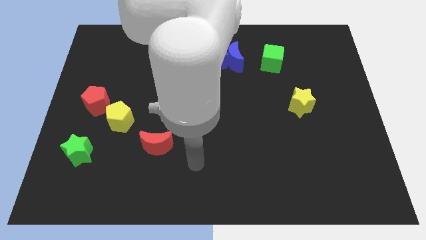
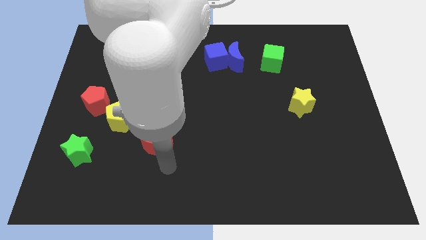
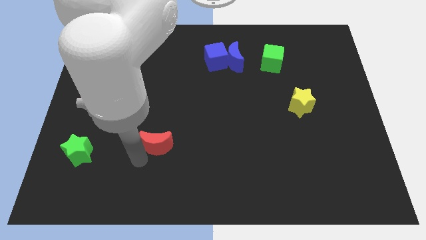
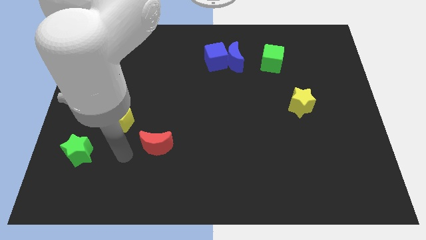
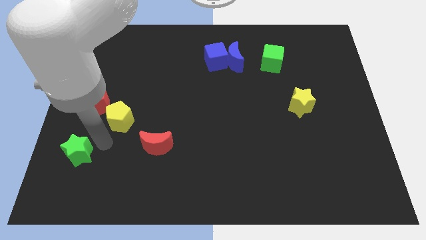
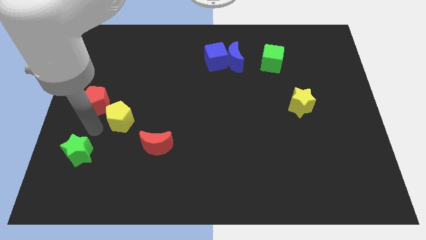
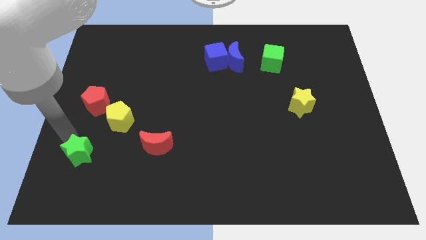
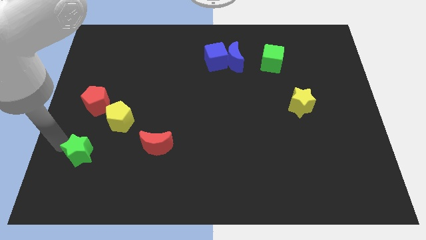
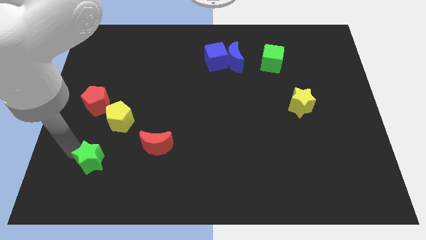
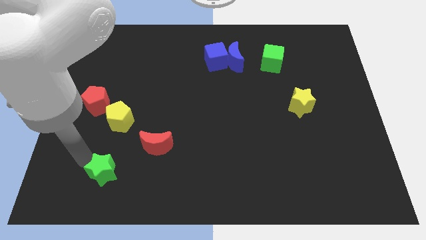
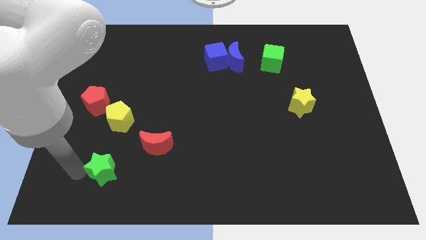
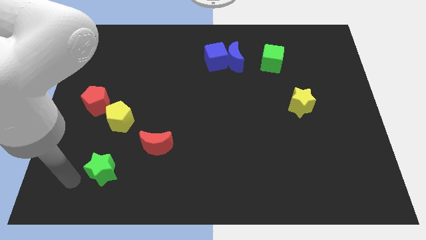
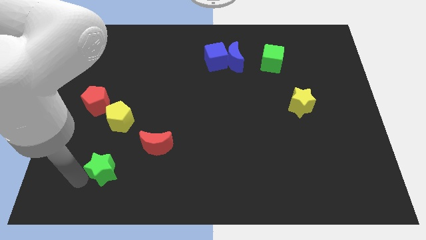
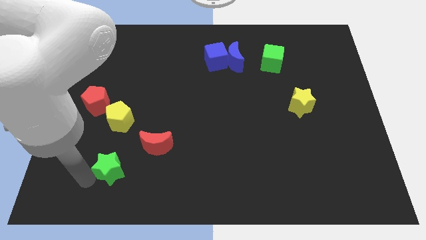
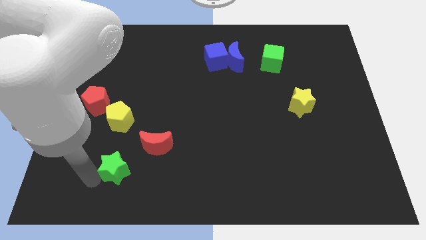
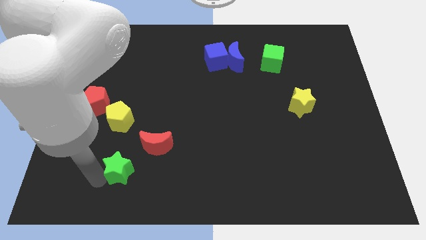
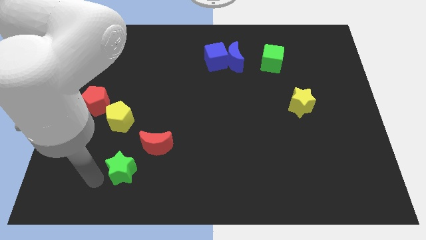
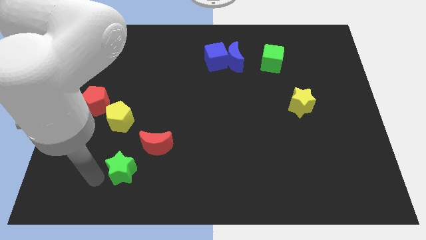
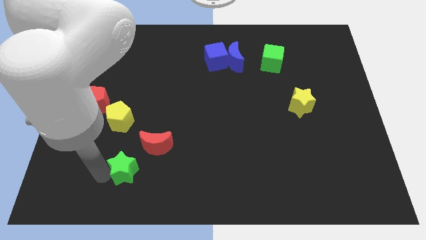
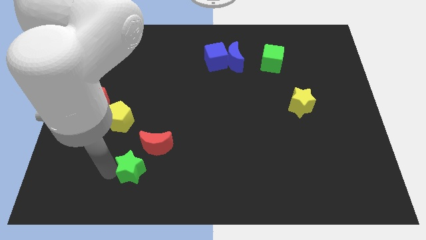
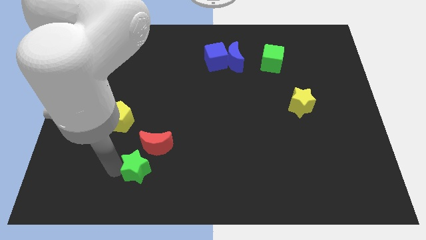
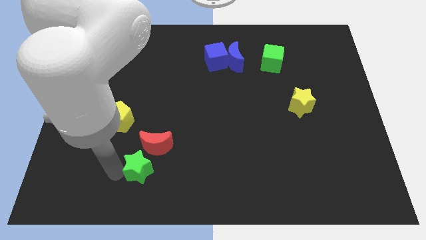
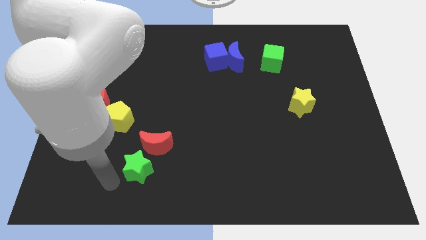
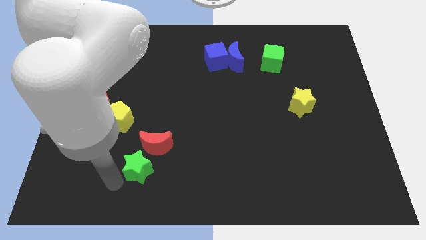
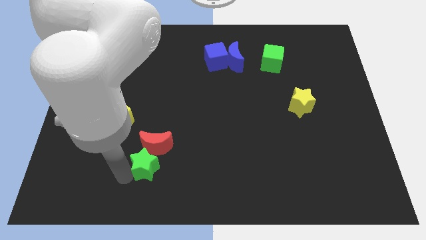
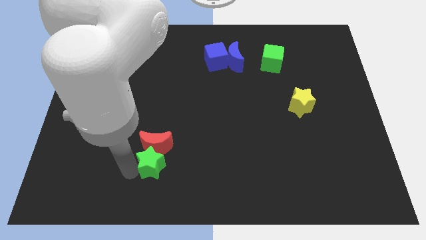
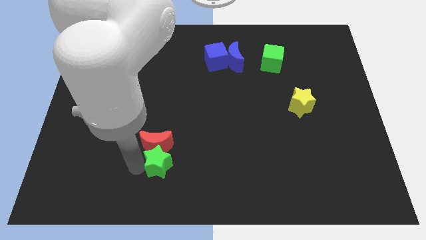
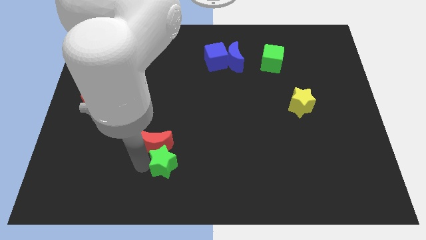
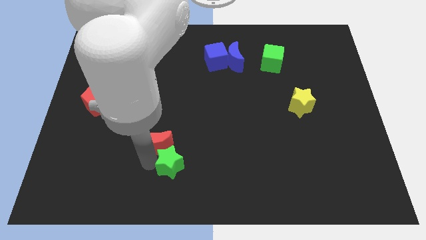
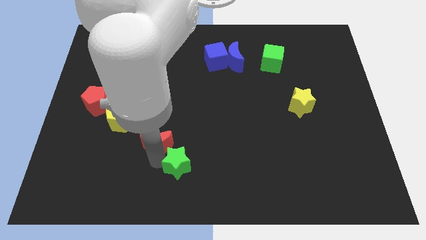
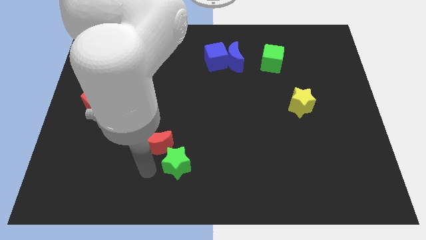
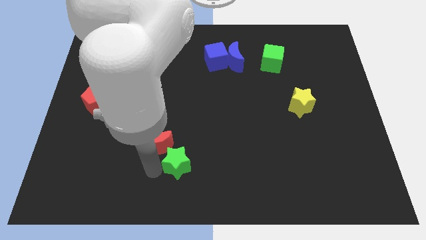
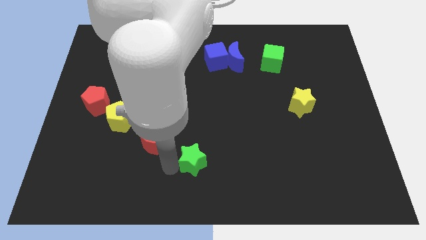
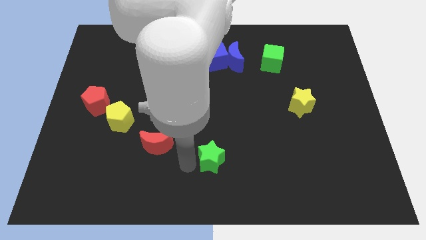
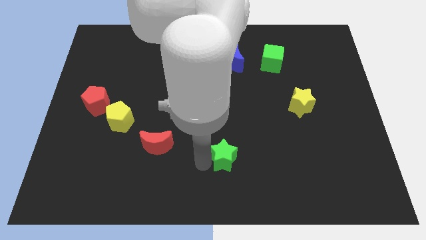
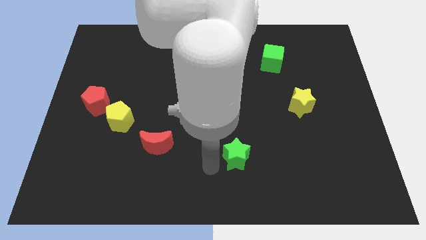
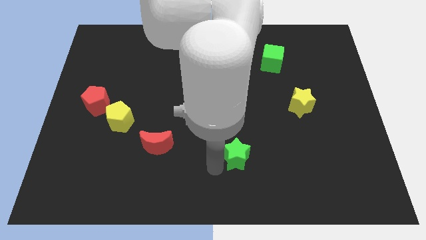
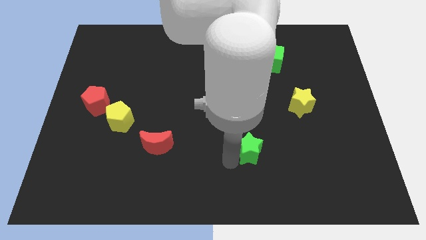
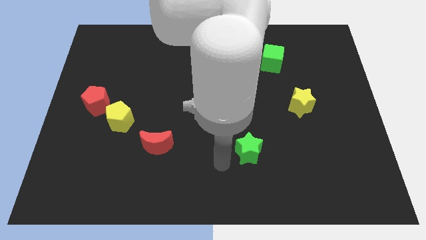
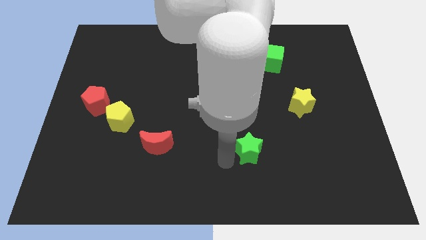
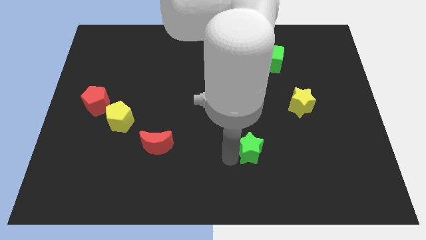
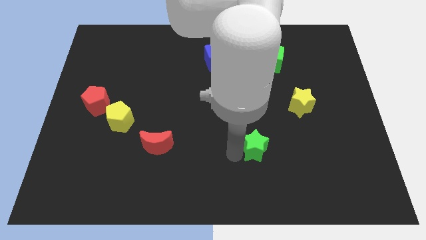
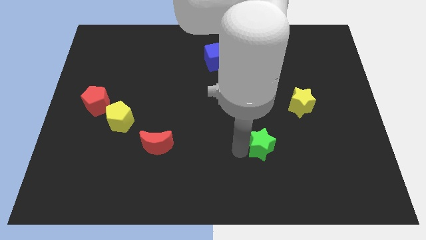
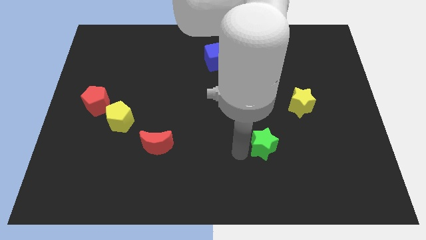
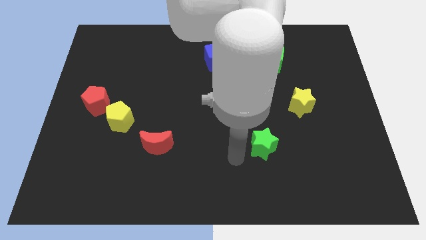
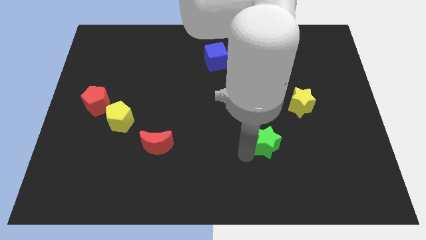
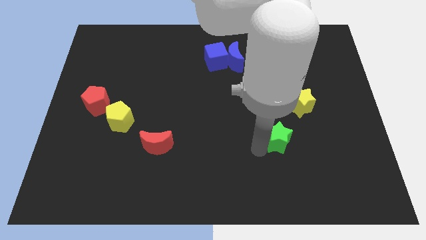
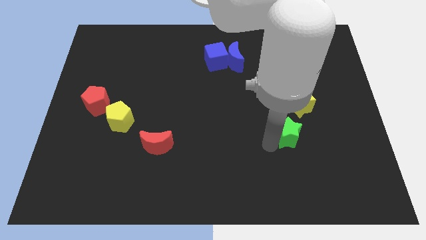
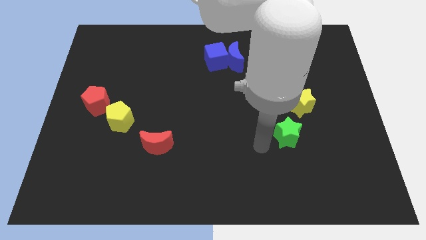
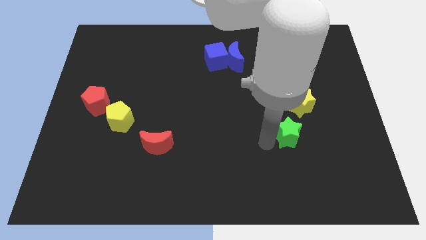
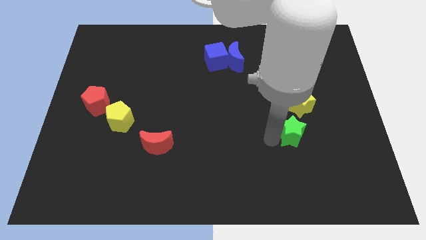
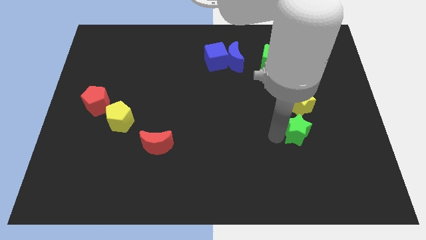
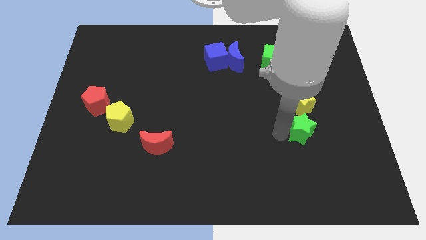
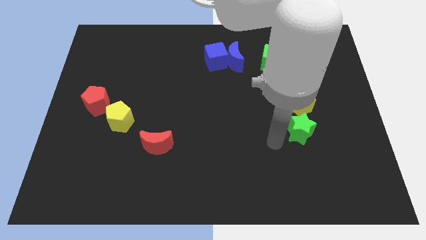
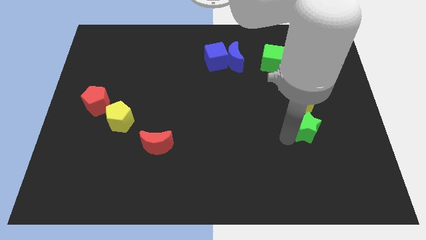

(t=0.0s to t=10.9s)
move the green star to the bottom right side of the yellow star

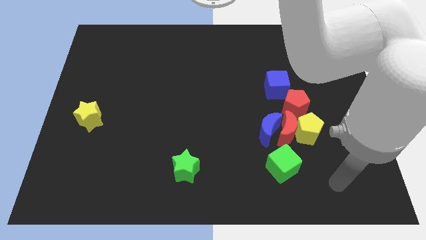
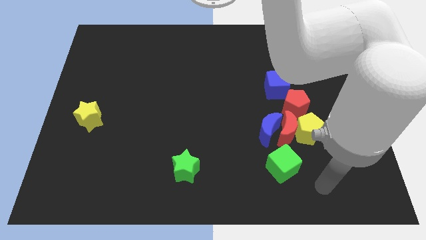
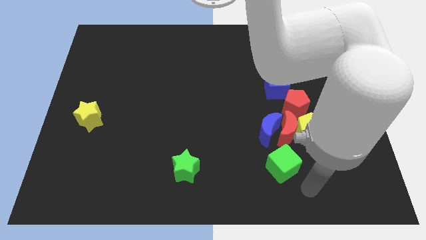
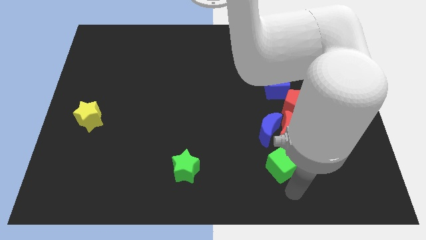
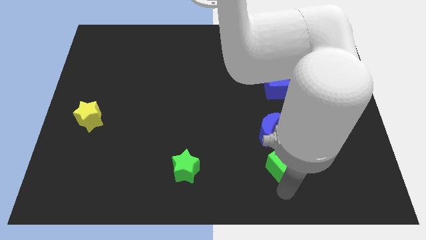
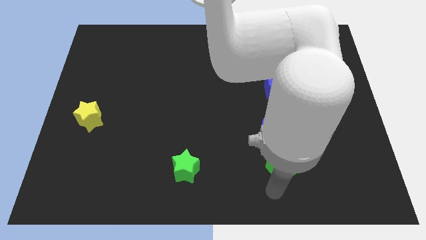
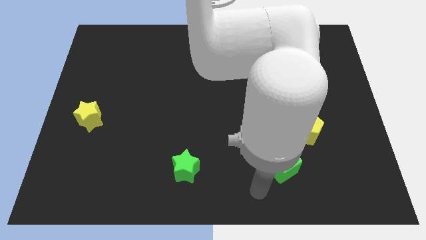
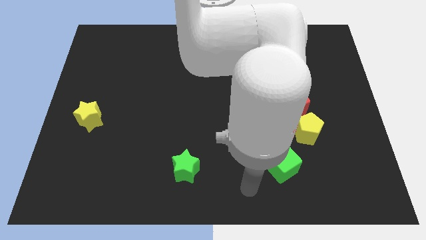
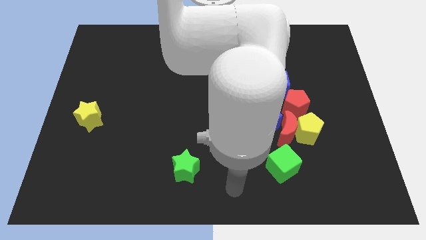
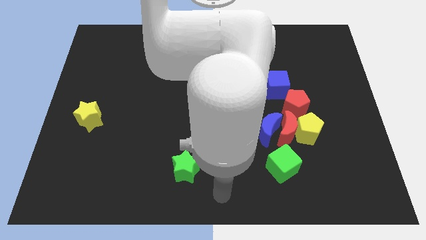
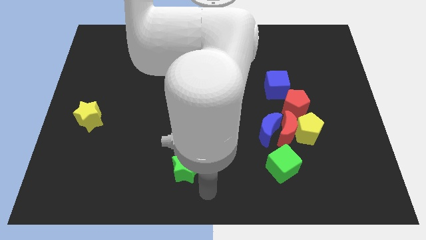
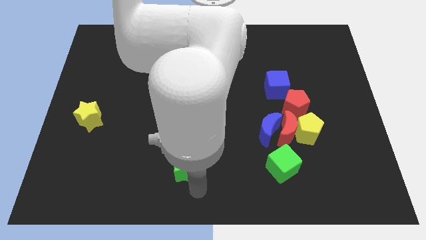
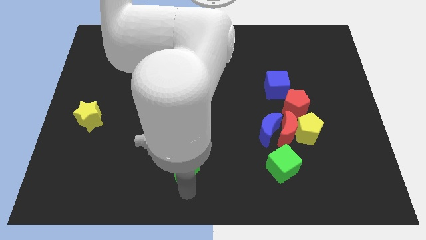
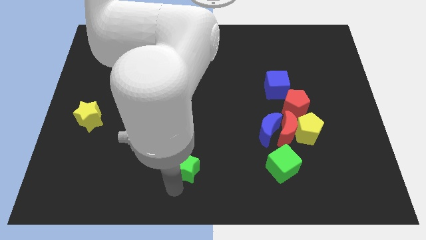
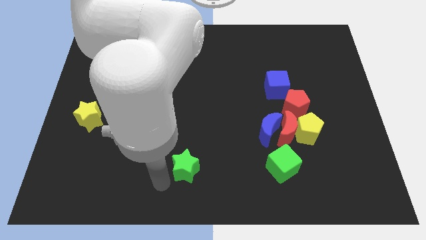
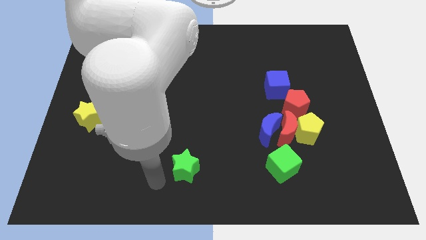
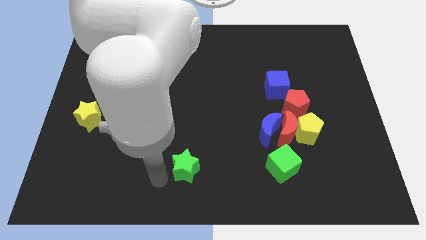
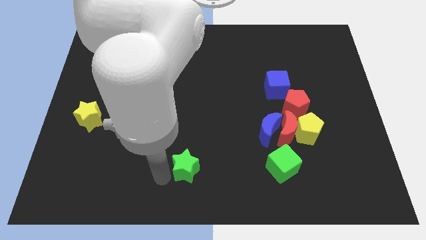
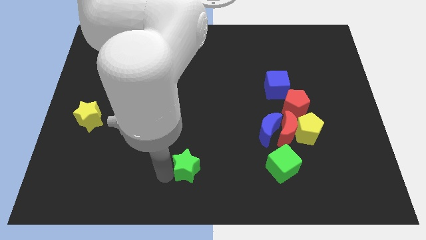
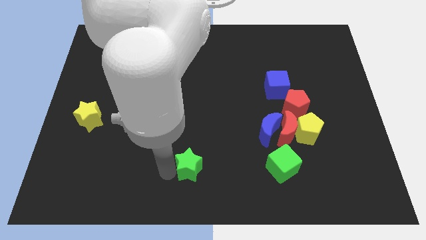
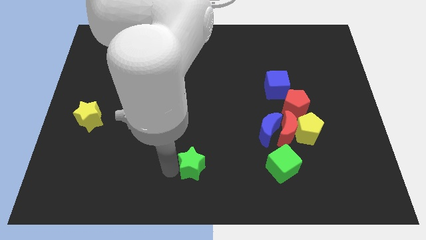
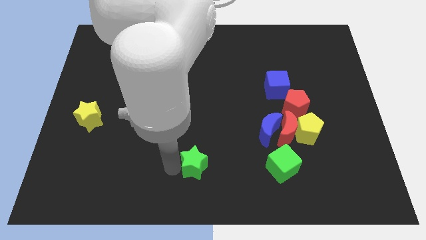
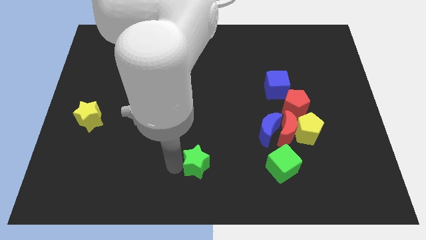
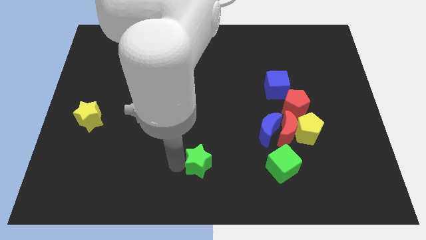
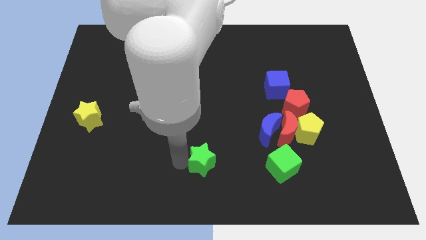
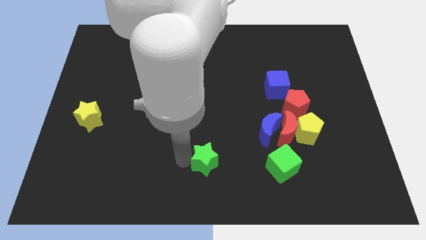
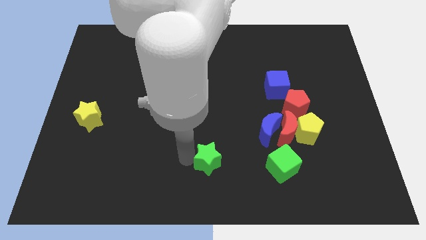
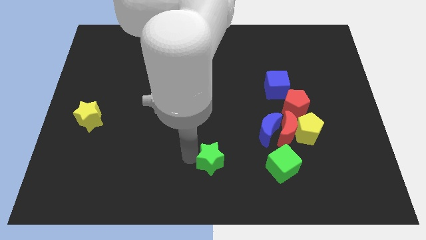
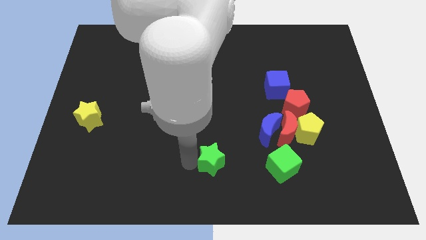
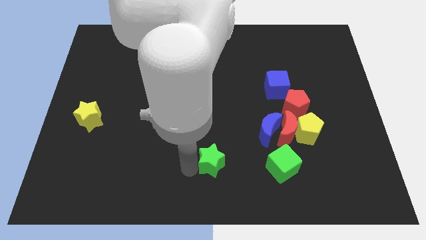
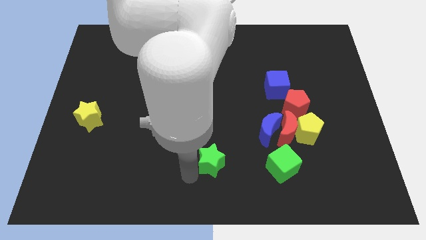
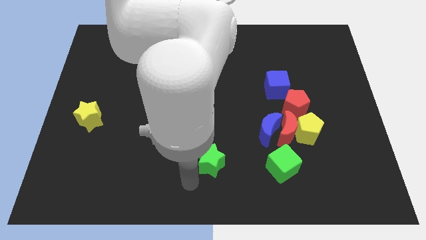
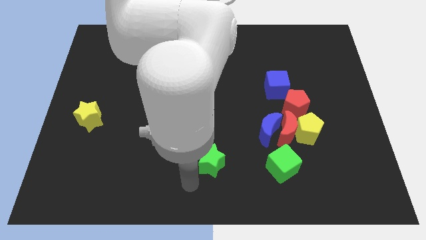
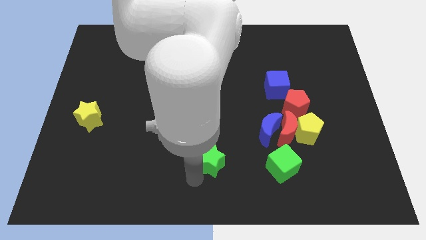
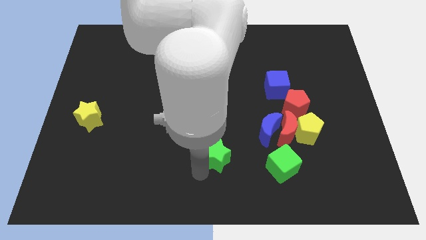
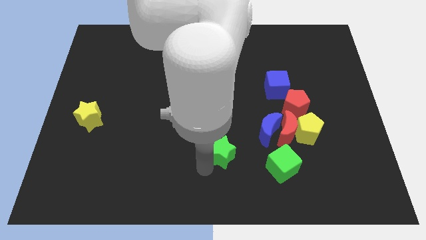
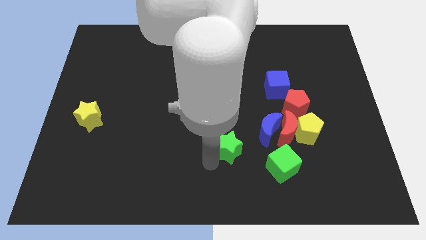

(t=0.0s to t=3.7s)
put the green star to the left of the red moon
